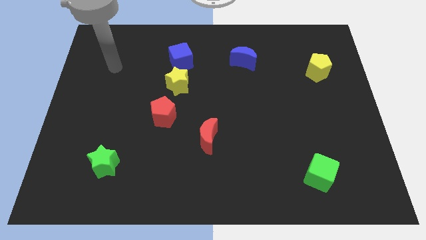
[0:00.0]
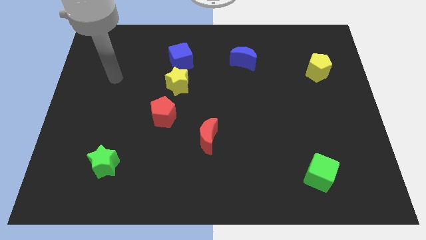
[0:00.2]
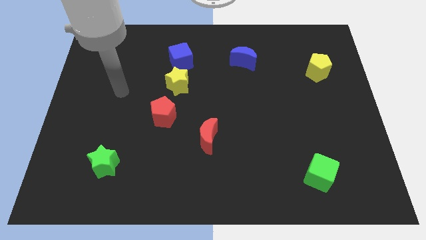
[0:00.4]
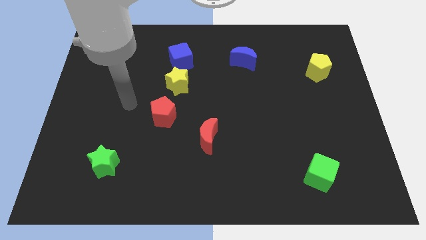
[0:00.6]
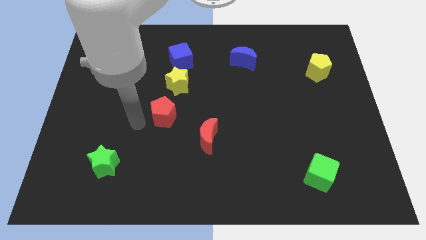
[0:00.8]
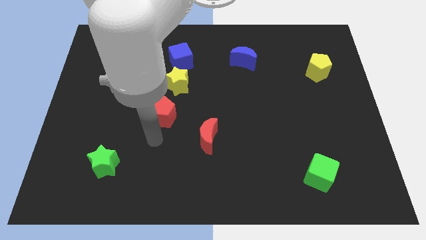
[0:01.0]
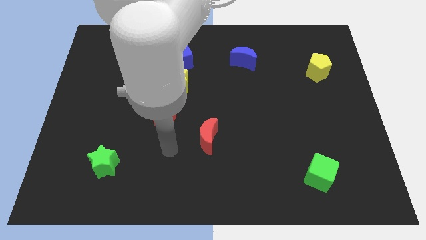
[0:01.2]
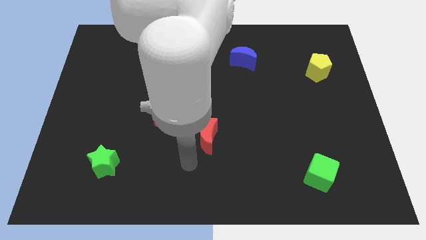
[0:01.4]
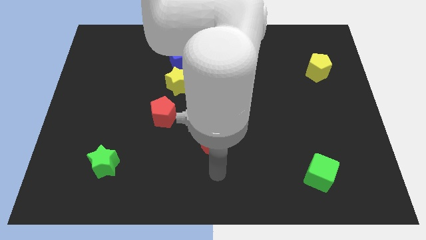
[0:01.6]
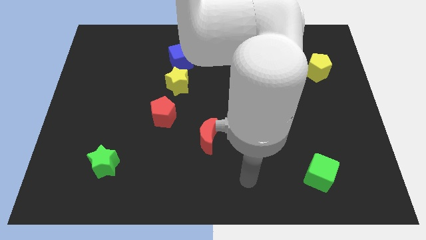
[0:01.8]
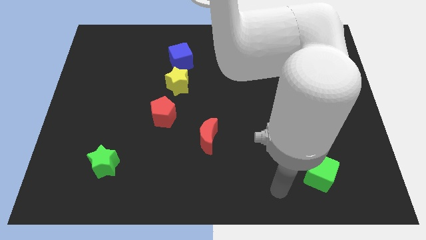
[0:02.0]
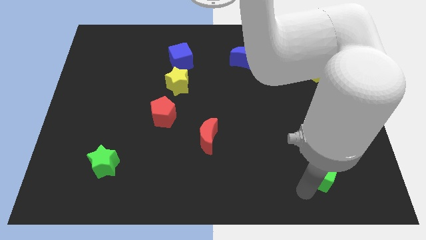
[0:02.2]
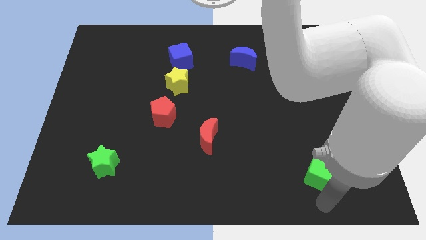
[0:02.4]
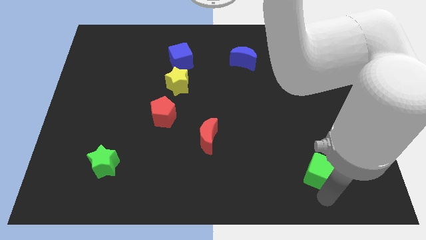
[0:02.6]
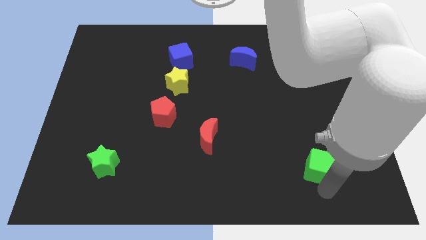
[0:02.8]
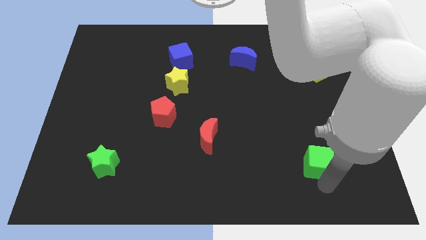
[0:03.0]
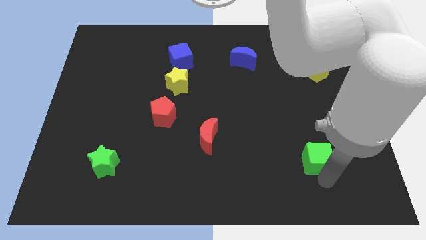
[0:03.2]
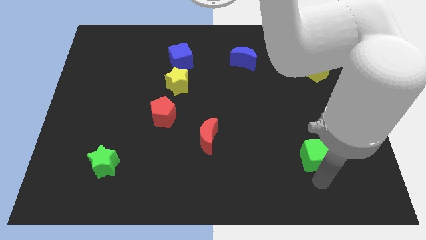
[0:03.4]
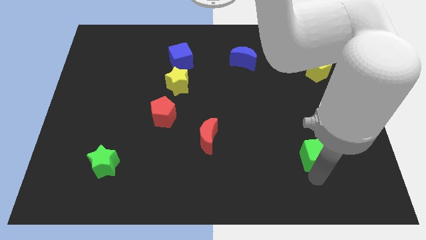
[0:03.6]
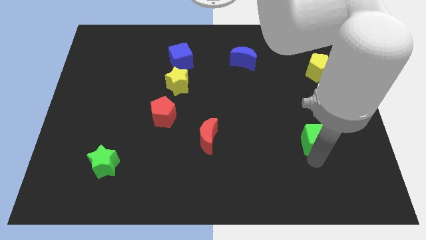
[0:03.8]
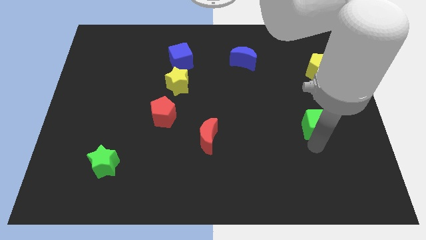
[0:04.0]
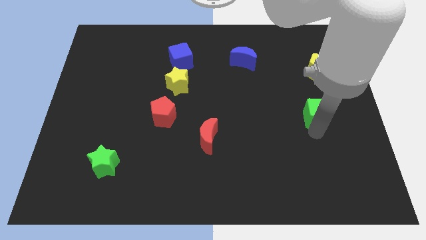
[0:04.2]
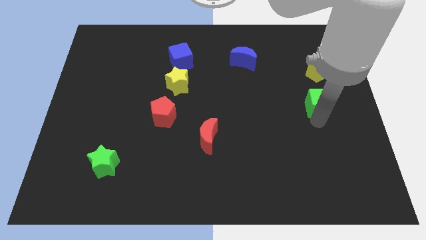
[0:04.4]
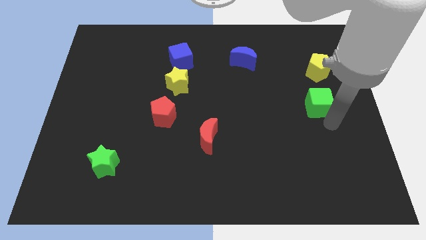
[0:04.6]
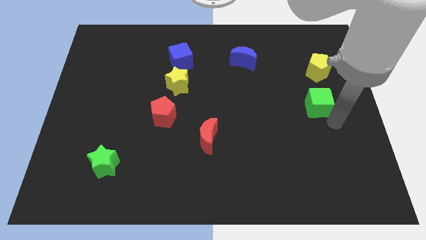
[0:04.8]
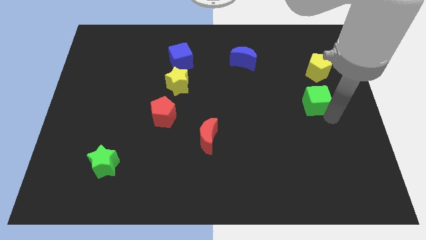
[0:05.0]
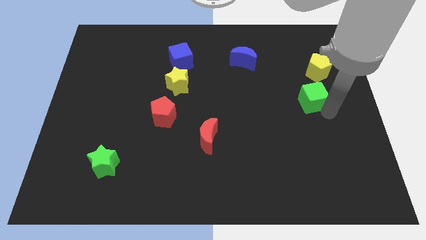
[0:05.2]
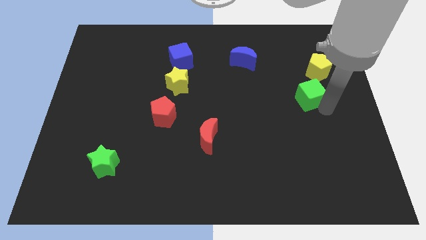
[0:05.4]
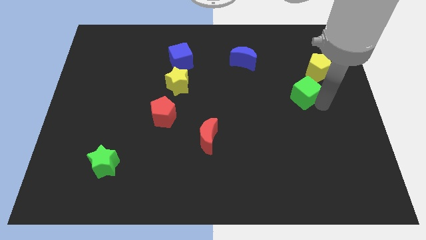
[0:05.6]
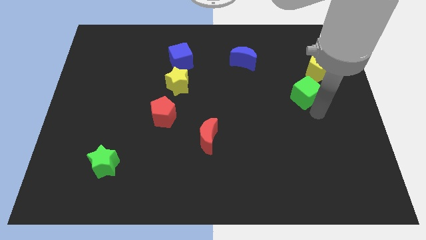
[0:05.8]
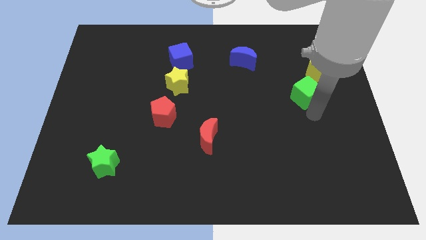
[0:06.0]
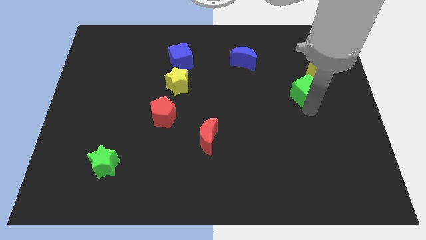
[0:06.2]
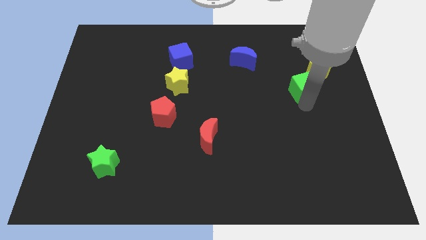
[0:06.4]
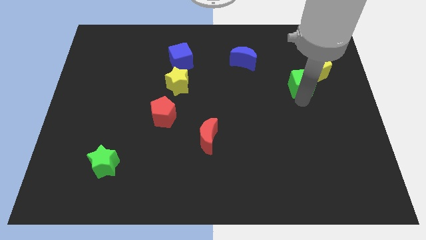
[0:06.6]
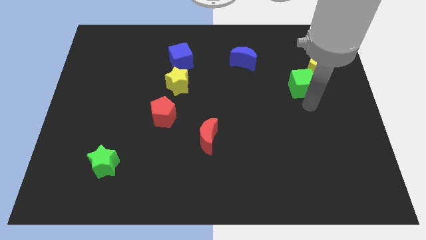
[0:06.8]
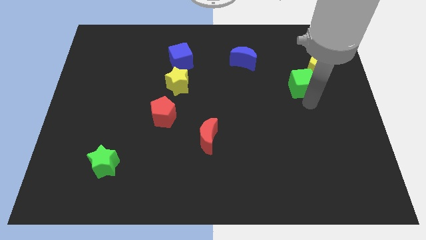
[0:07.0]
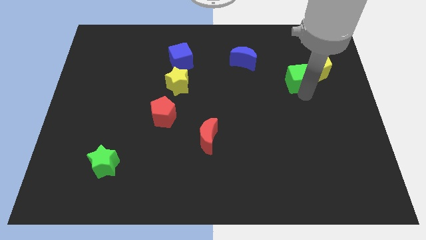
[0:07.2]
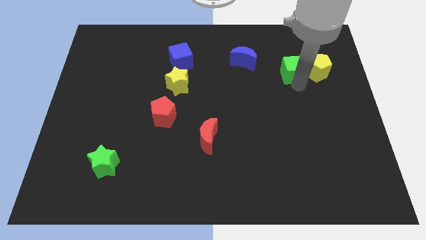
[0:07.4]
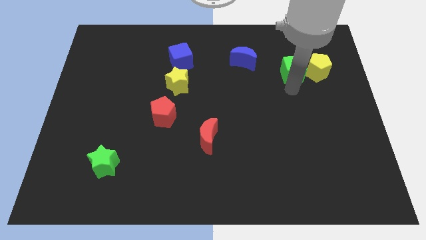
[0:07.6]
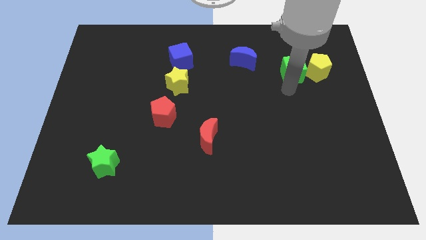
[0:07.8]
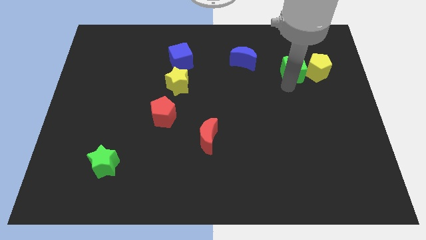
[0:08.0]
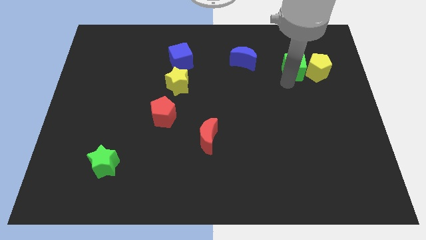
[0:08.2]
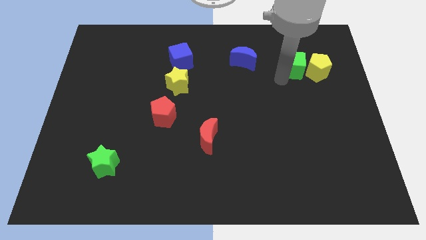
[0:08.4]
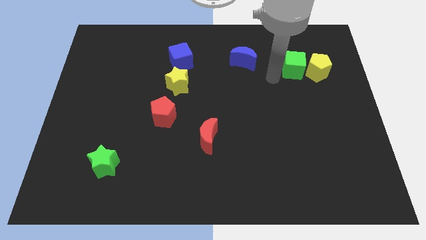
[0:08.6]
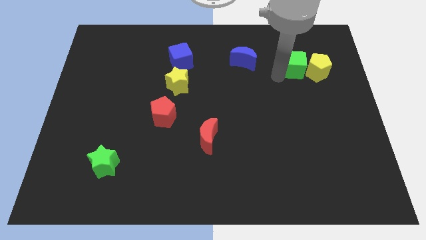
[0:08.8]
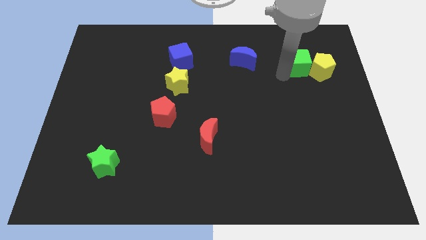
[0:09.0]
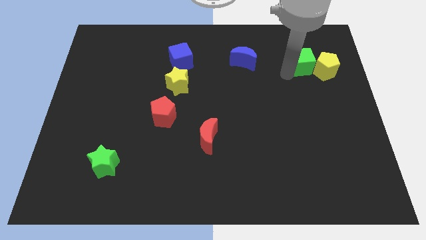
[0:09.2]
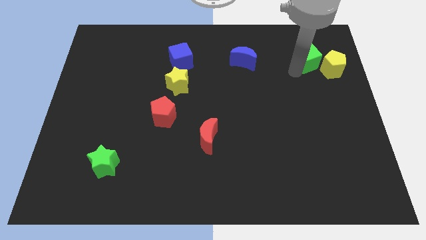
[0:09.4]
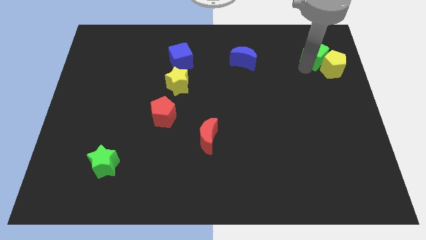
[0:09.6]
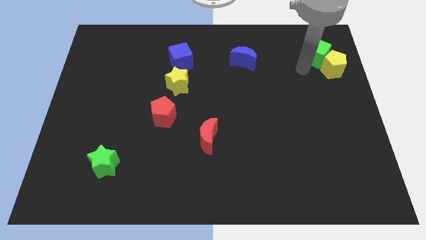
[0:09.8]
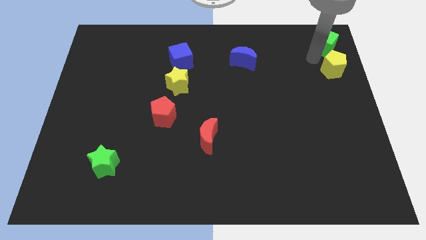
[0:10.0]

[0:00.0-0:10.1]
move the green cube to the upper right corner

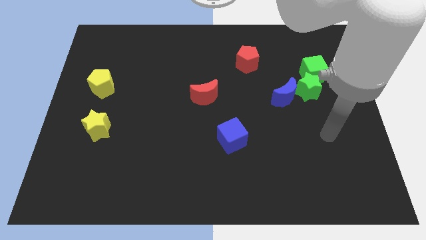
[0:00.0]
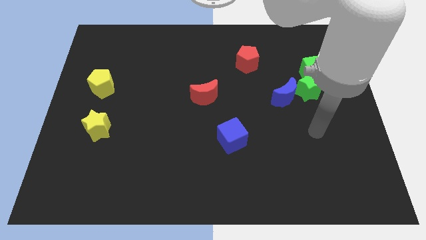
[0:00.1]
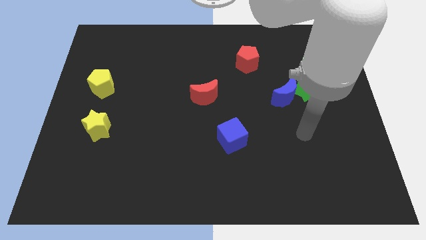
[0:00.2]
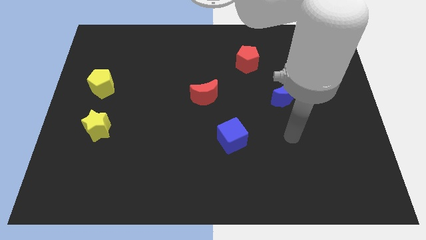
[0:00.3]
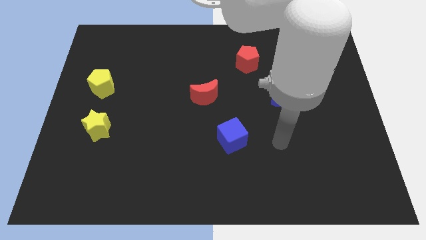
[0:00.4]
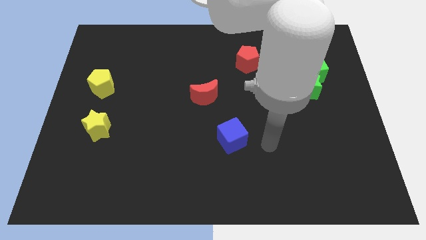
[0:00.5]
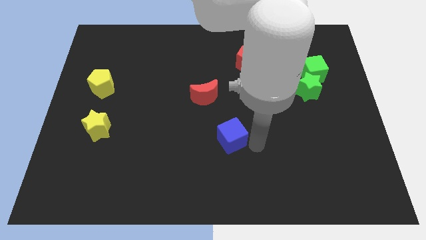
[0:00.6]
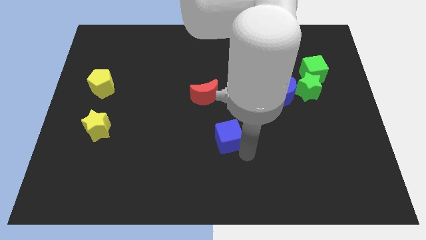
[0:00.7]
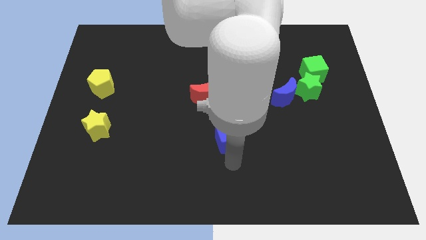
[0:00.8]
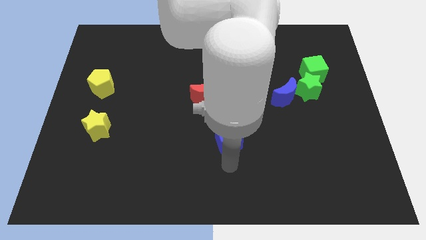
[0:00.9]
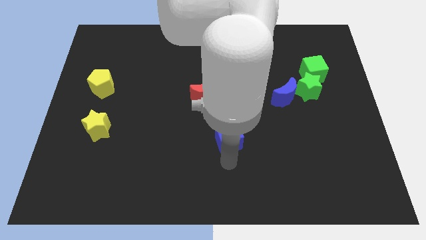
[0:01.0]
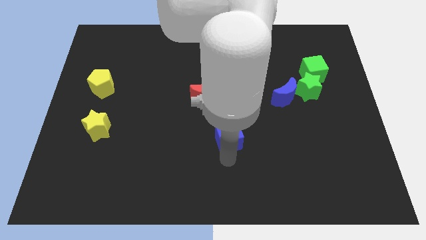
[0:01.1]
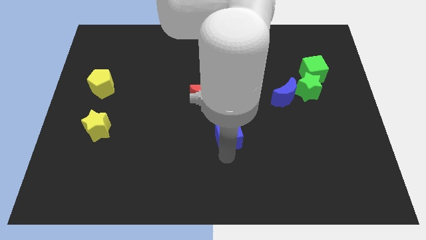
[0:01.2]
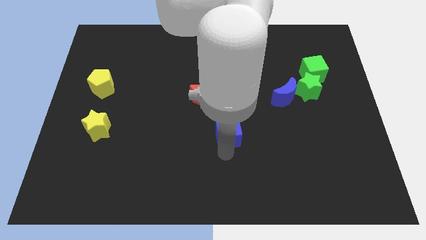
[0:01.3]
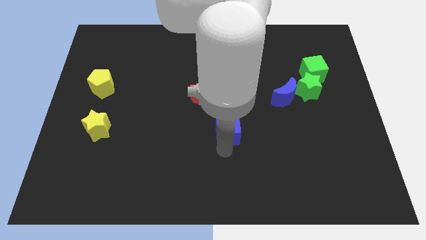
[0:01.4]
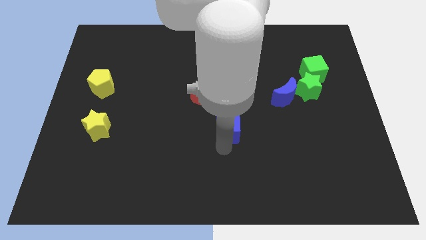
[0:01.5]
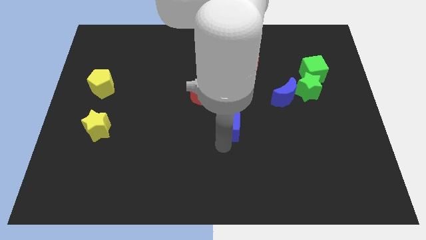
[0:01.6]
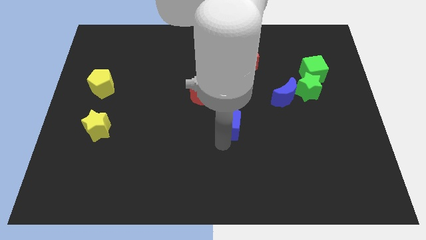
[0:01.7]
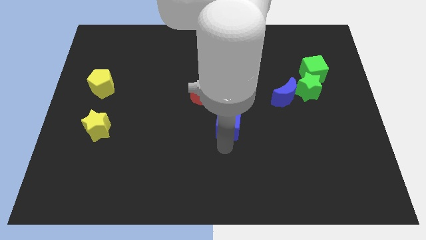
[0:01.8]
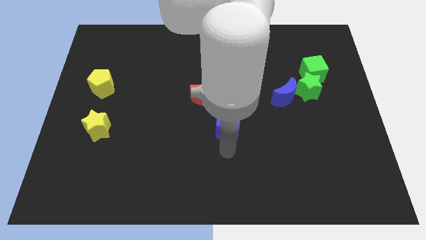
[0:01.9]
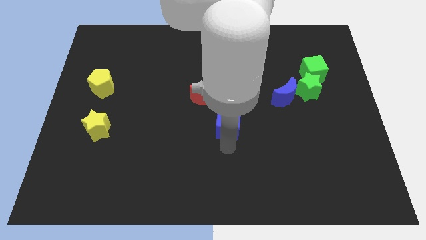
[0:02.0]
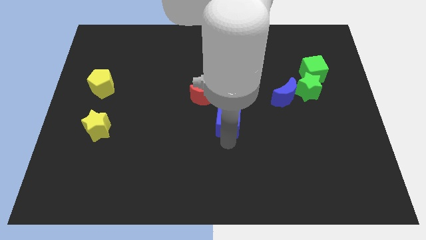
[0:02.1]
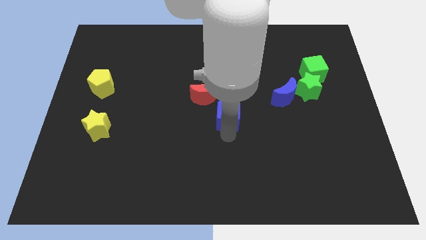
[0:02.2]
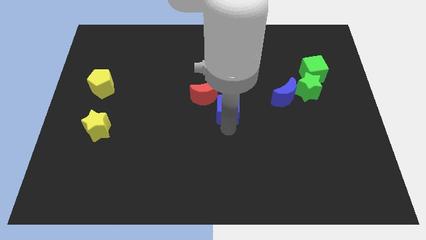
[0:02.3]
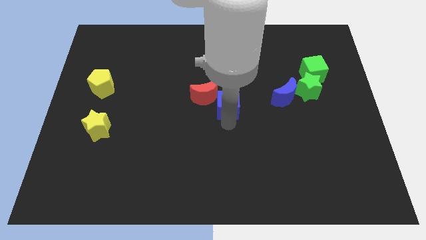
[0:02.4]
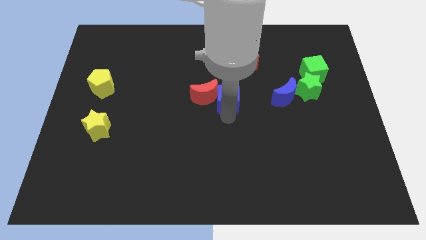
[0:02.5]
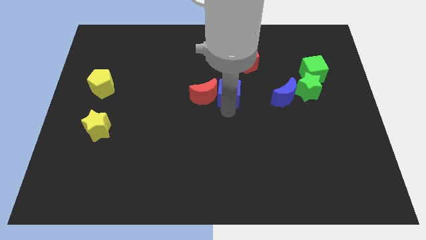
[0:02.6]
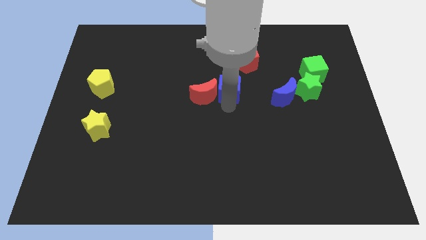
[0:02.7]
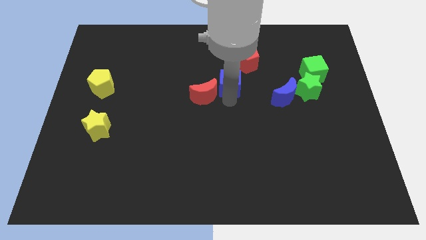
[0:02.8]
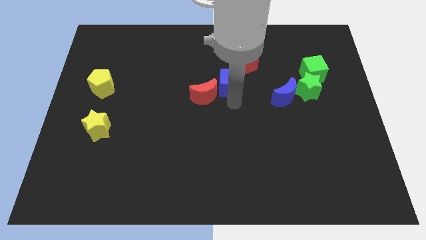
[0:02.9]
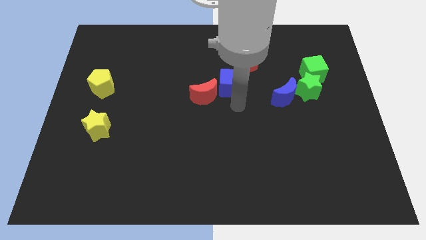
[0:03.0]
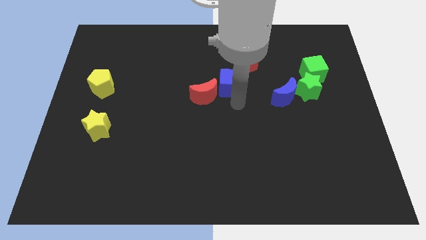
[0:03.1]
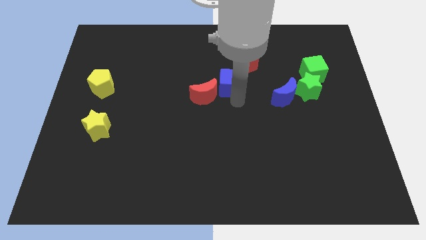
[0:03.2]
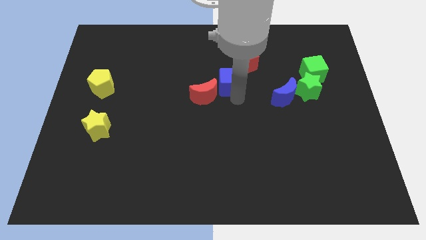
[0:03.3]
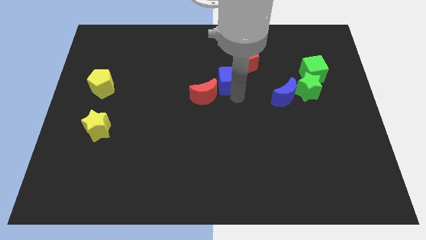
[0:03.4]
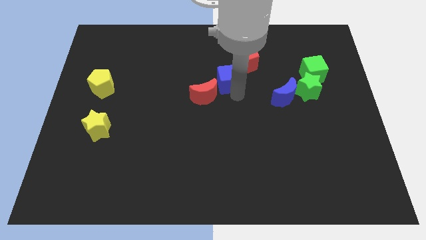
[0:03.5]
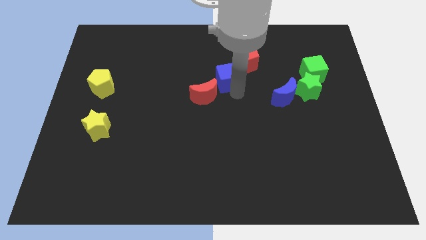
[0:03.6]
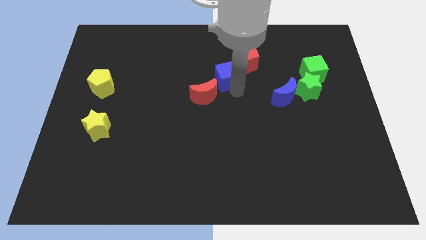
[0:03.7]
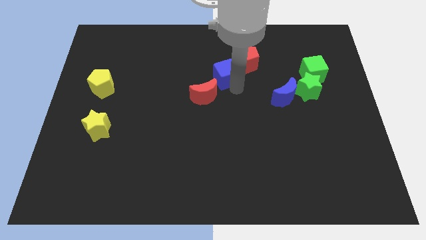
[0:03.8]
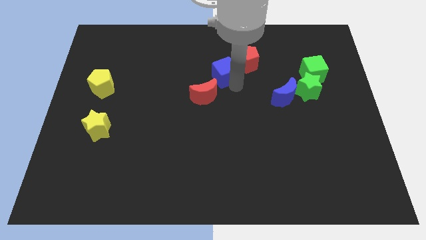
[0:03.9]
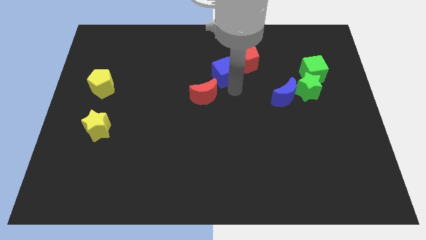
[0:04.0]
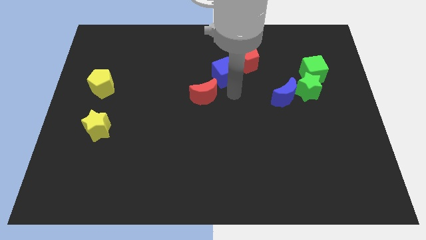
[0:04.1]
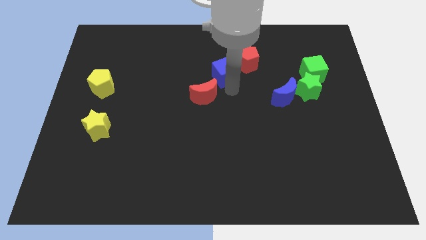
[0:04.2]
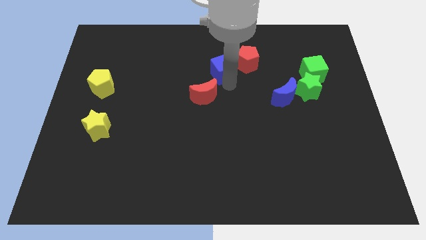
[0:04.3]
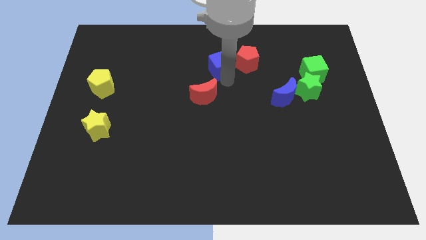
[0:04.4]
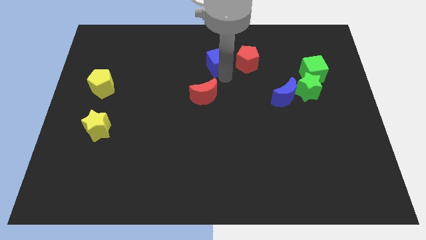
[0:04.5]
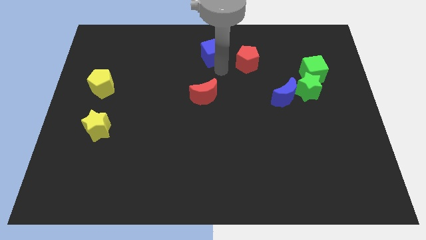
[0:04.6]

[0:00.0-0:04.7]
move the blue cube to the top
